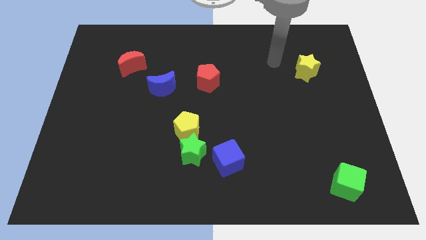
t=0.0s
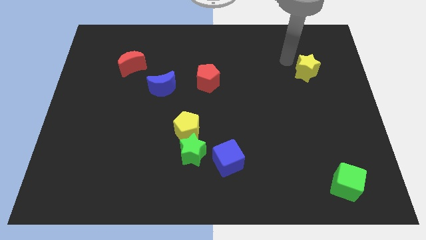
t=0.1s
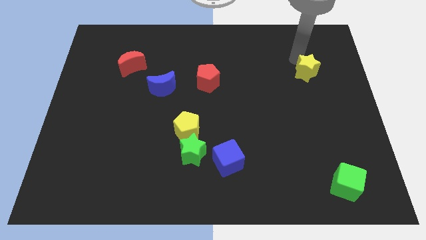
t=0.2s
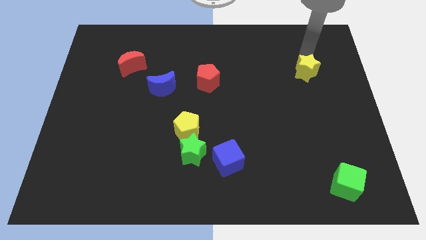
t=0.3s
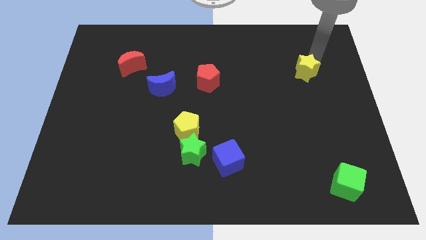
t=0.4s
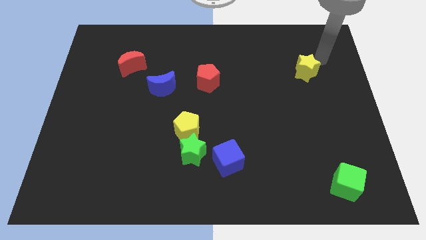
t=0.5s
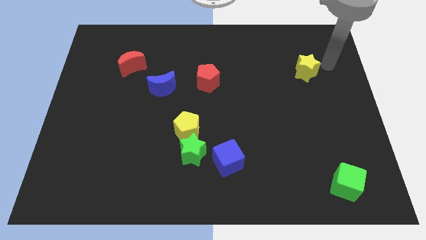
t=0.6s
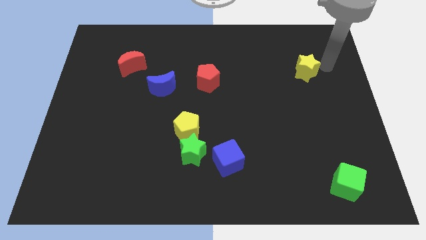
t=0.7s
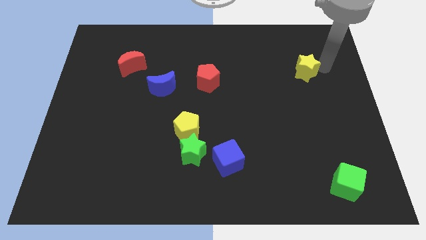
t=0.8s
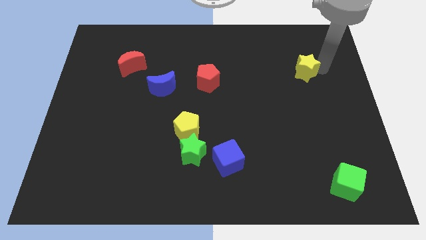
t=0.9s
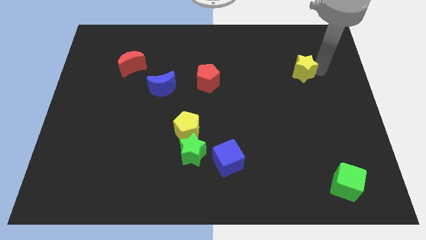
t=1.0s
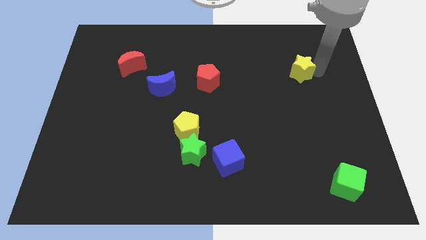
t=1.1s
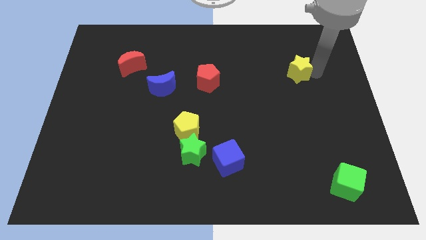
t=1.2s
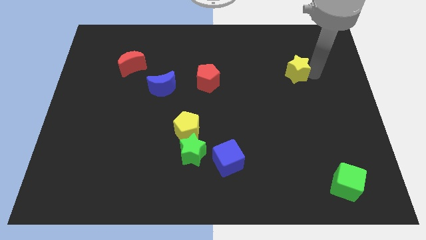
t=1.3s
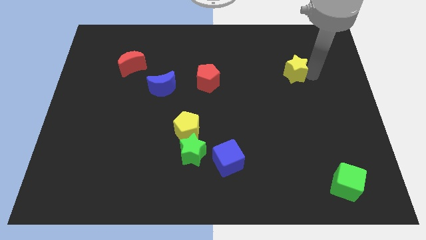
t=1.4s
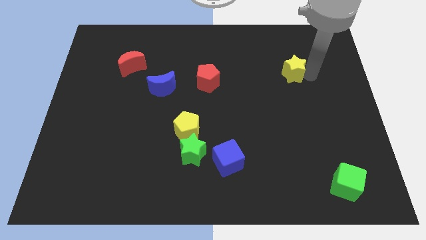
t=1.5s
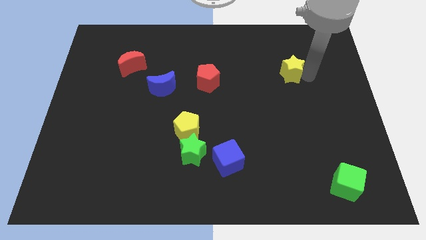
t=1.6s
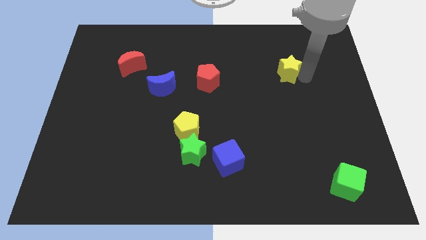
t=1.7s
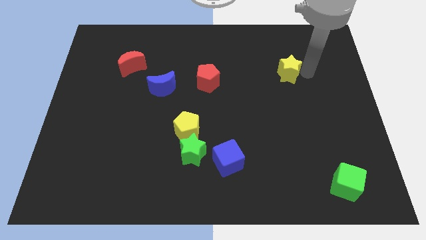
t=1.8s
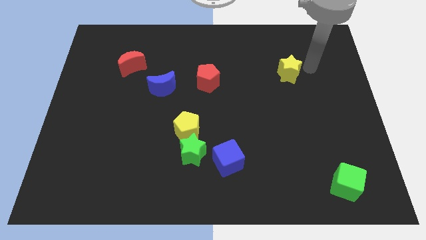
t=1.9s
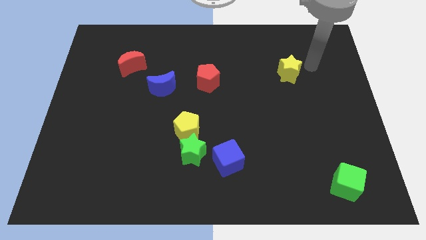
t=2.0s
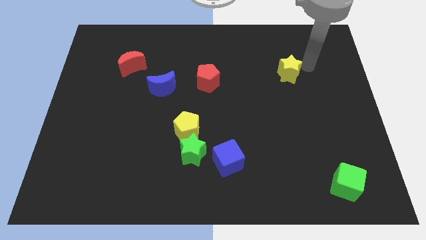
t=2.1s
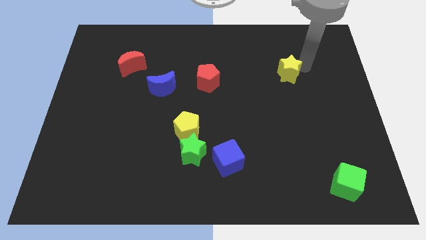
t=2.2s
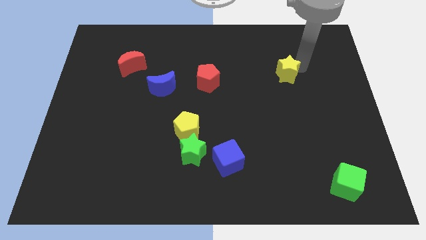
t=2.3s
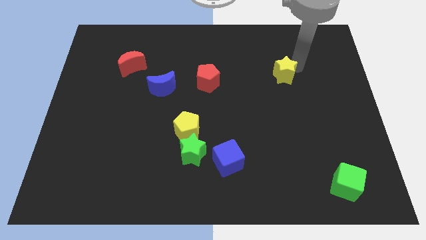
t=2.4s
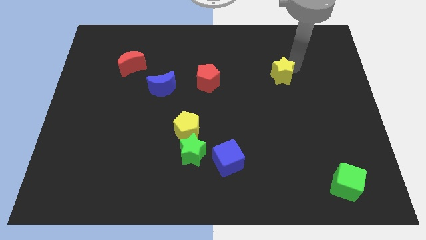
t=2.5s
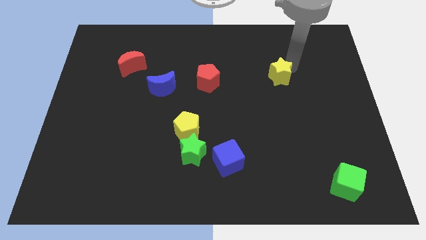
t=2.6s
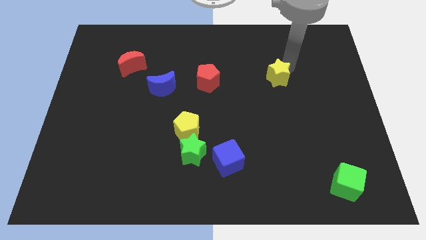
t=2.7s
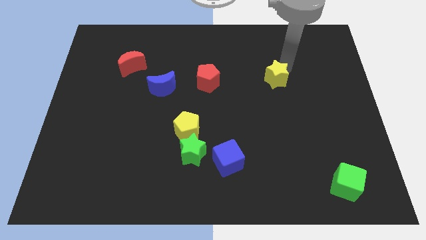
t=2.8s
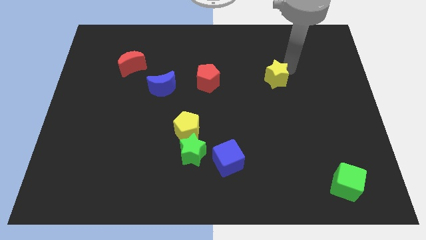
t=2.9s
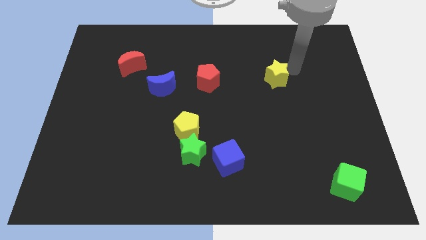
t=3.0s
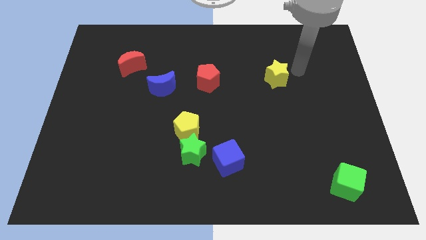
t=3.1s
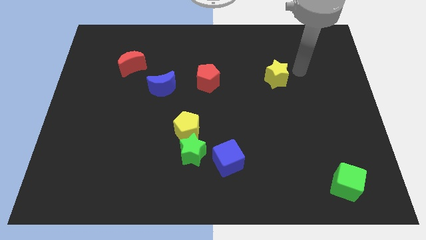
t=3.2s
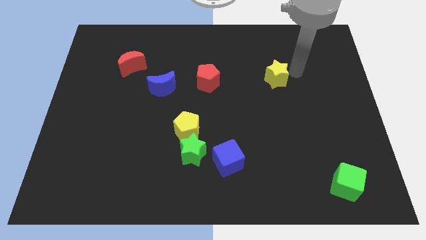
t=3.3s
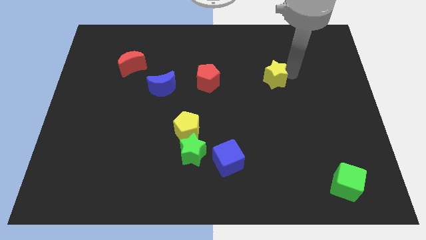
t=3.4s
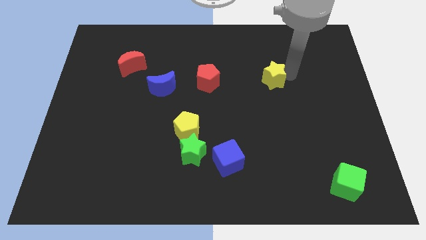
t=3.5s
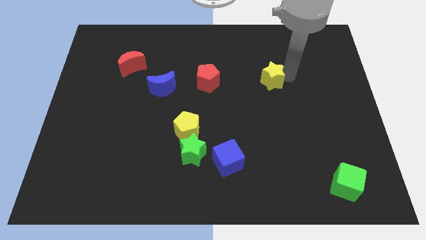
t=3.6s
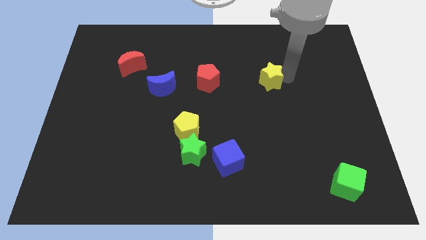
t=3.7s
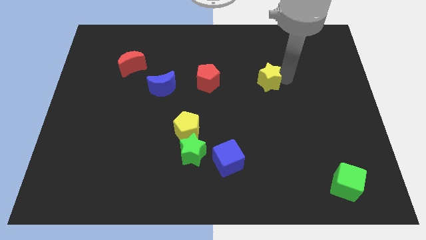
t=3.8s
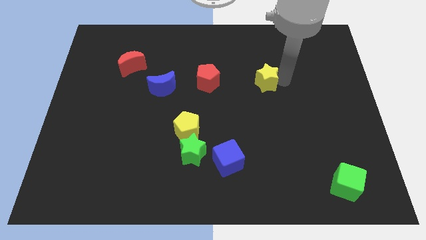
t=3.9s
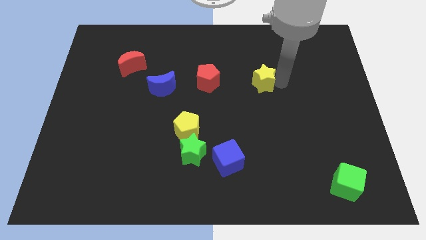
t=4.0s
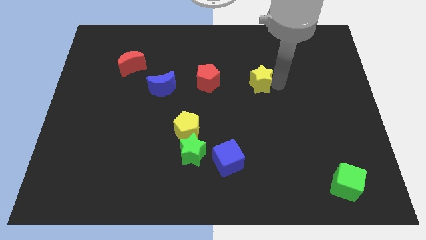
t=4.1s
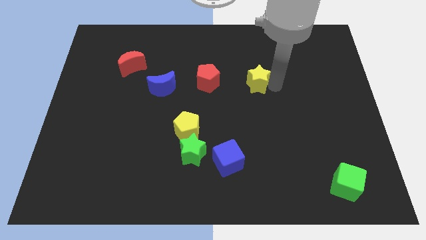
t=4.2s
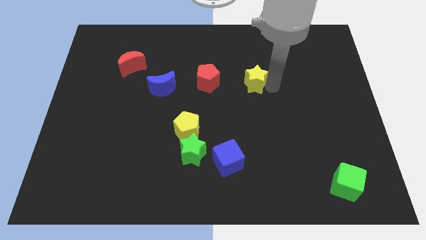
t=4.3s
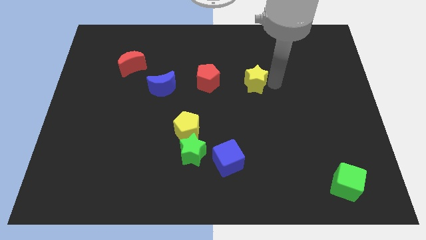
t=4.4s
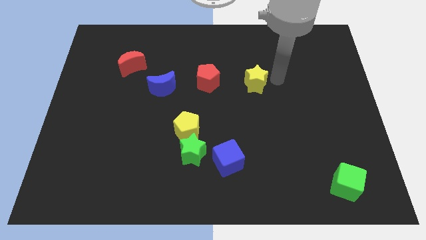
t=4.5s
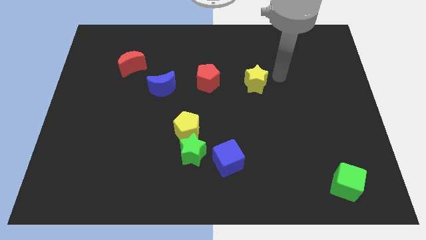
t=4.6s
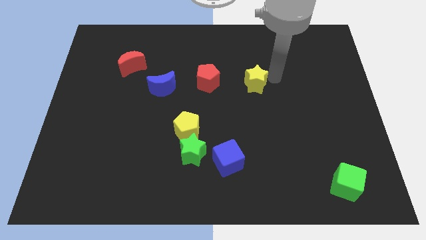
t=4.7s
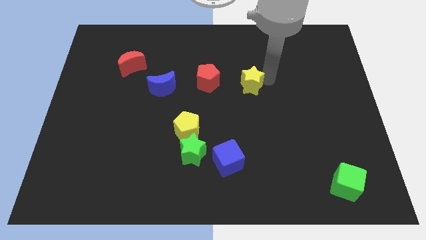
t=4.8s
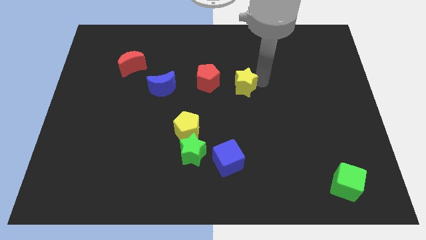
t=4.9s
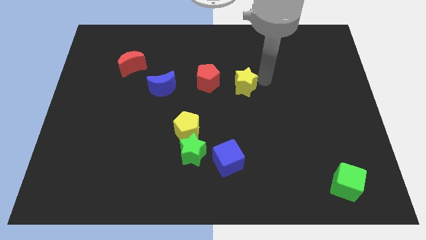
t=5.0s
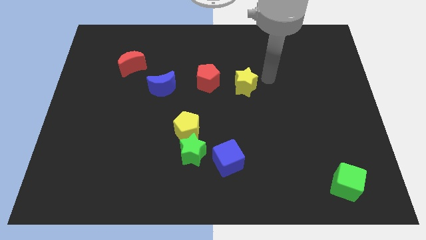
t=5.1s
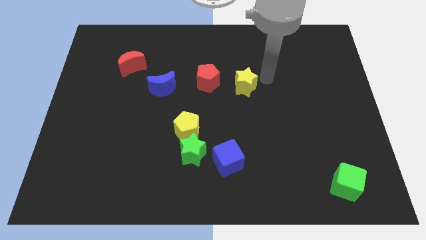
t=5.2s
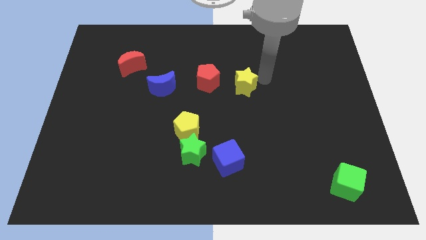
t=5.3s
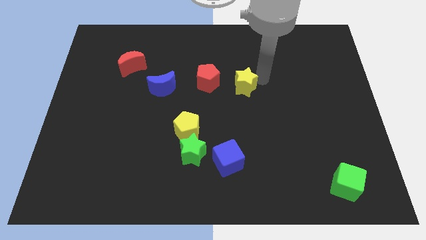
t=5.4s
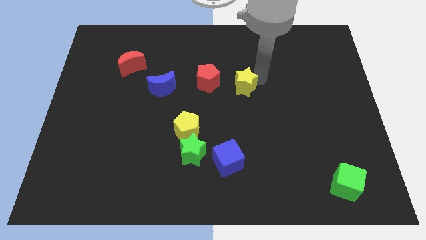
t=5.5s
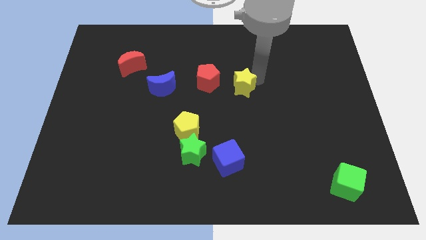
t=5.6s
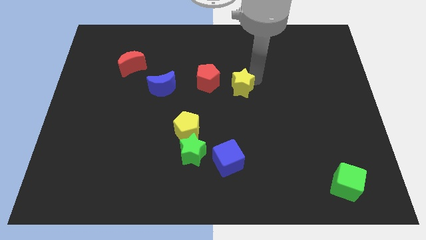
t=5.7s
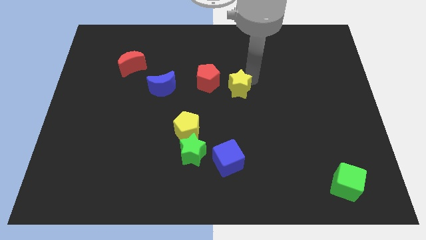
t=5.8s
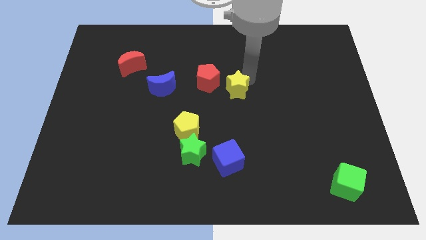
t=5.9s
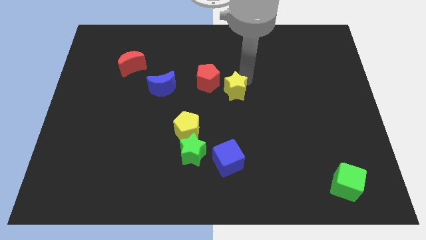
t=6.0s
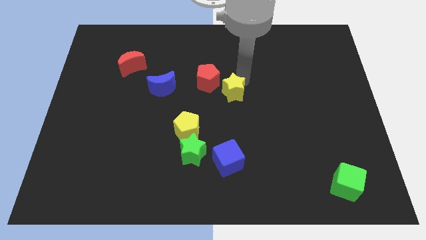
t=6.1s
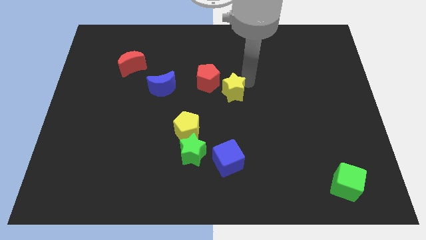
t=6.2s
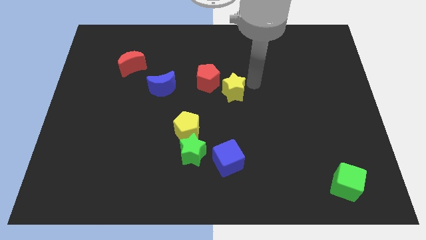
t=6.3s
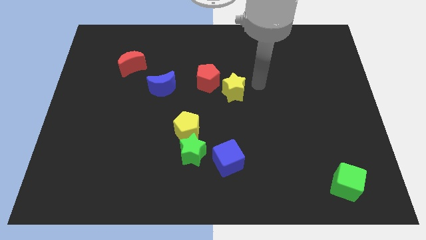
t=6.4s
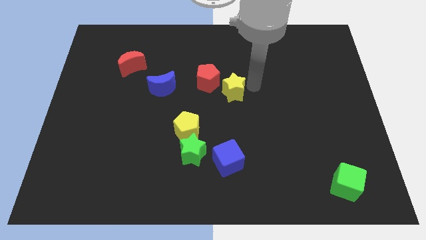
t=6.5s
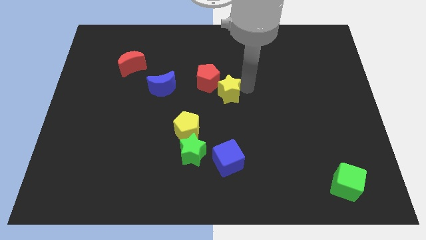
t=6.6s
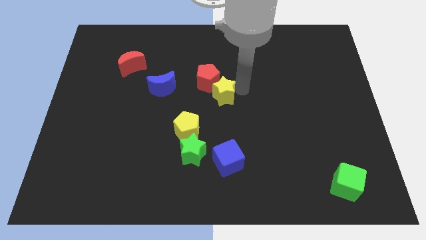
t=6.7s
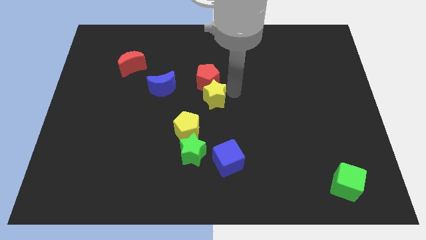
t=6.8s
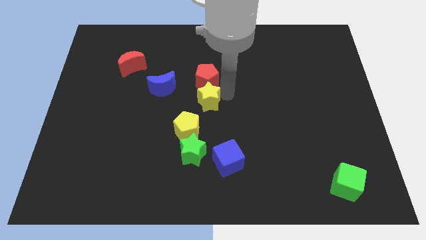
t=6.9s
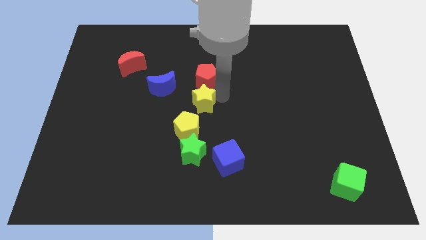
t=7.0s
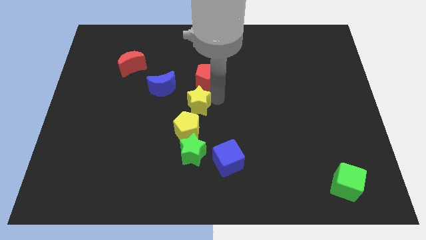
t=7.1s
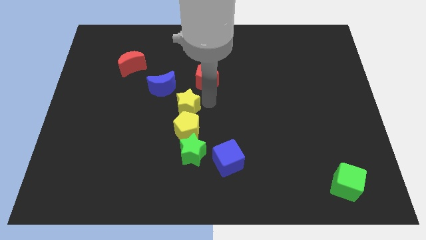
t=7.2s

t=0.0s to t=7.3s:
put the yellow star to the top left of the yellow pentagon

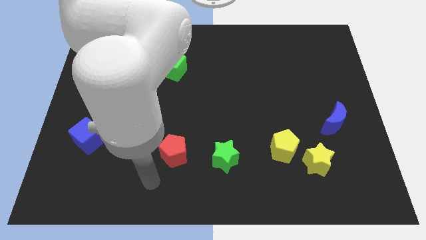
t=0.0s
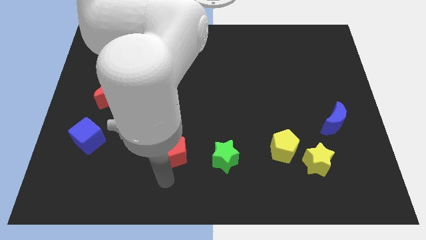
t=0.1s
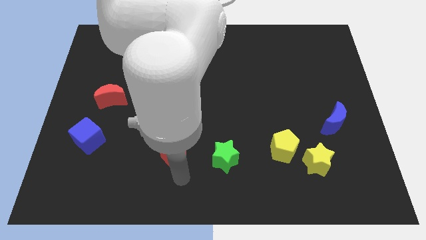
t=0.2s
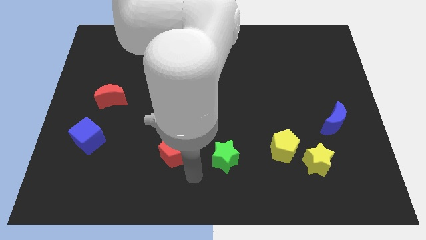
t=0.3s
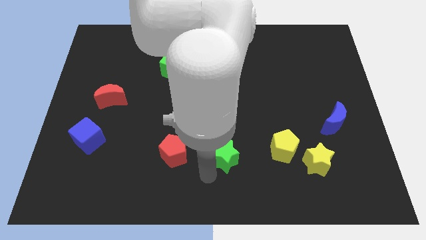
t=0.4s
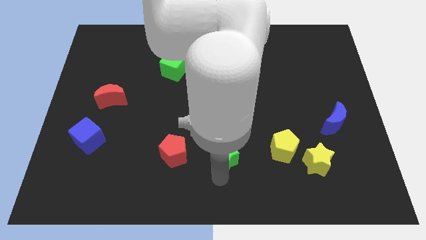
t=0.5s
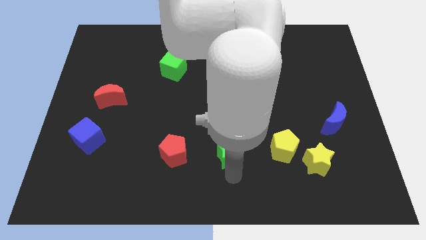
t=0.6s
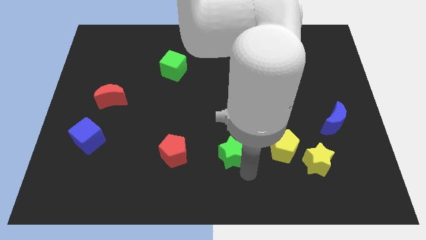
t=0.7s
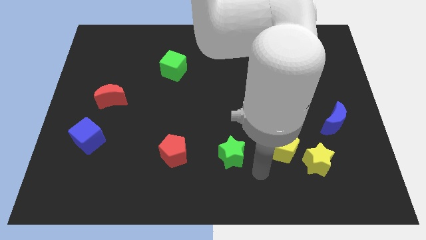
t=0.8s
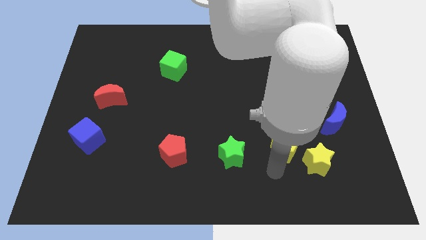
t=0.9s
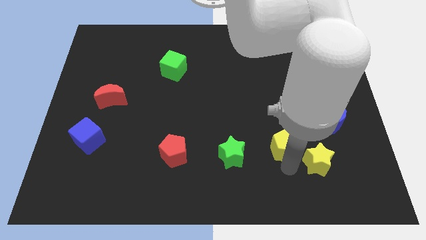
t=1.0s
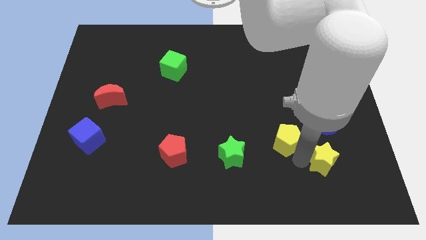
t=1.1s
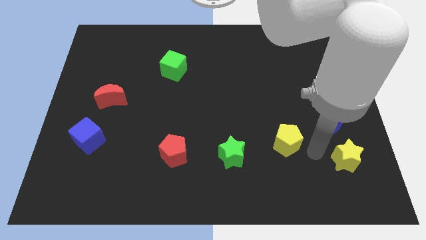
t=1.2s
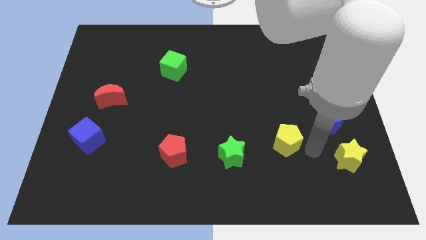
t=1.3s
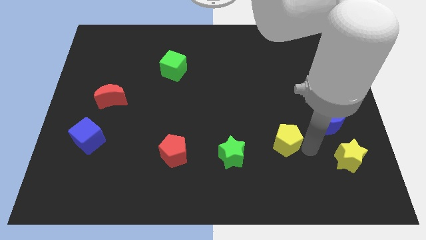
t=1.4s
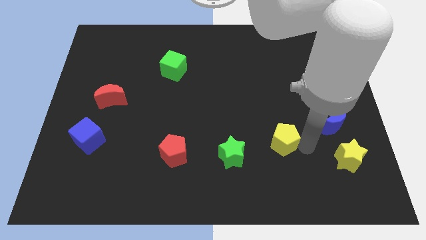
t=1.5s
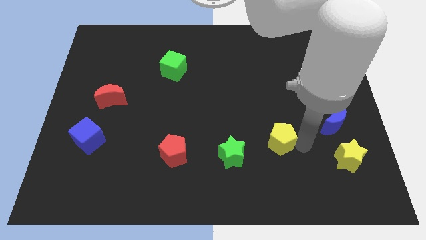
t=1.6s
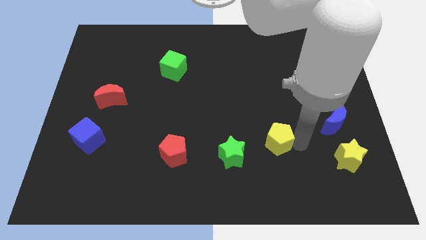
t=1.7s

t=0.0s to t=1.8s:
push the yellow pentagon diagonally up and to the right of the green star
